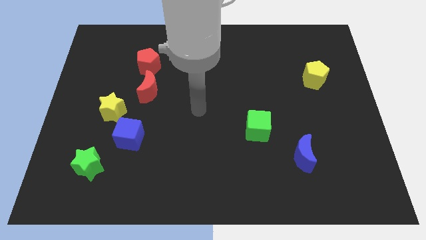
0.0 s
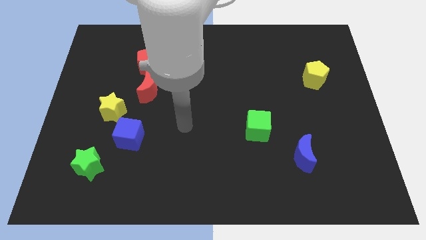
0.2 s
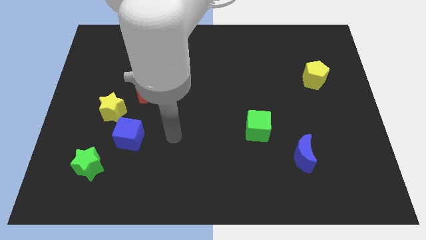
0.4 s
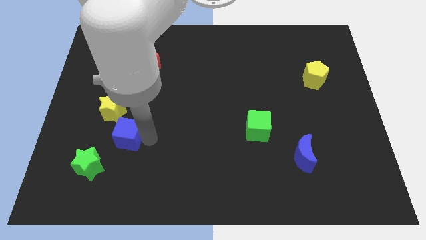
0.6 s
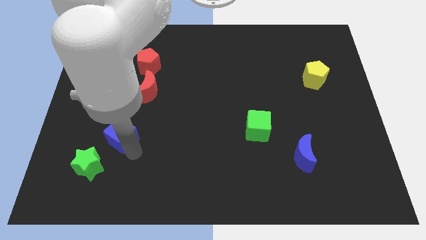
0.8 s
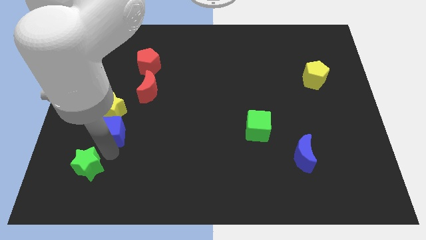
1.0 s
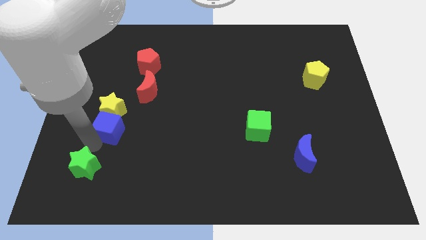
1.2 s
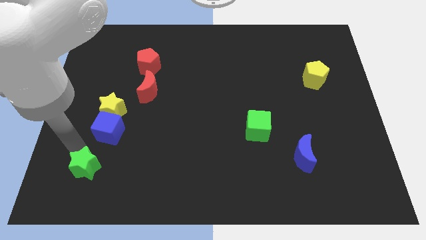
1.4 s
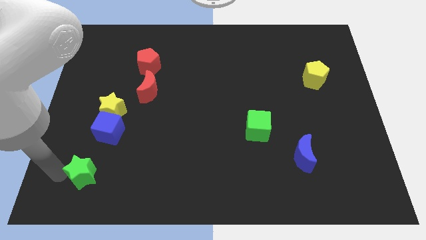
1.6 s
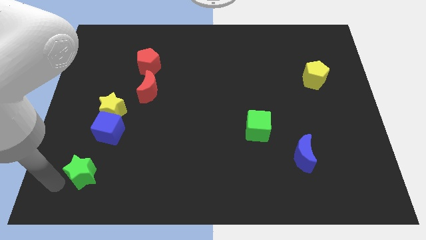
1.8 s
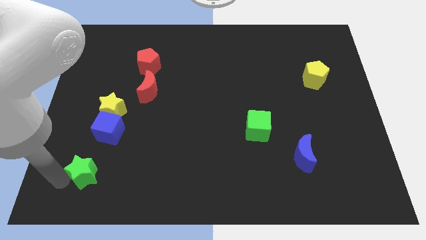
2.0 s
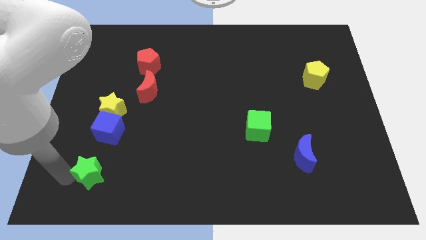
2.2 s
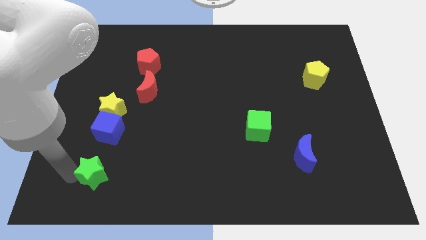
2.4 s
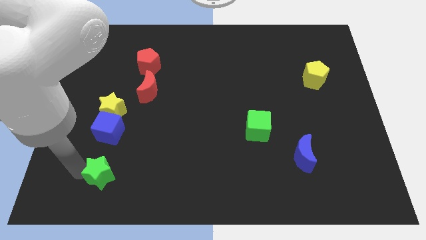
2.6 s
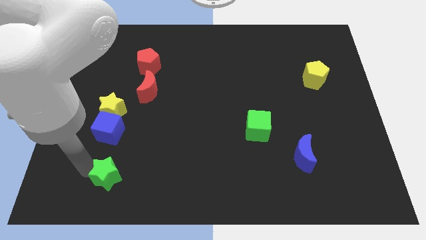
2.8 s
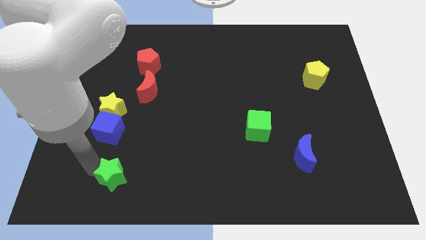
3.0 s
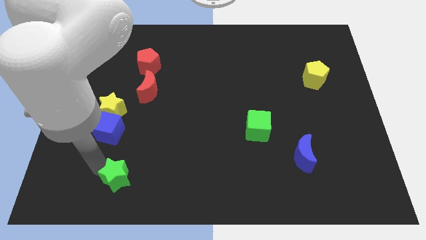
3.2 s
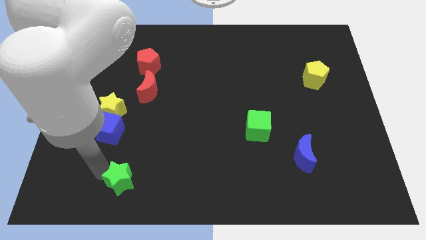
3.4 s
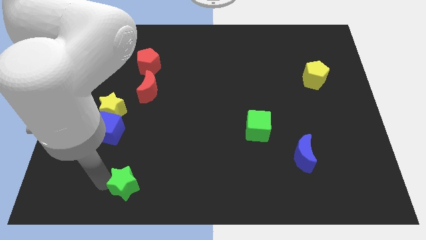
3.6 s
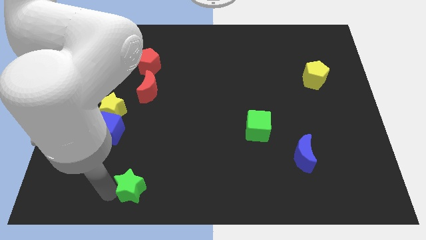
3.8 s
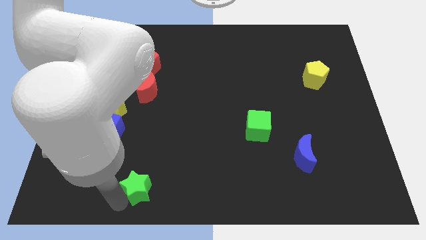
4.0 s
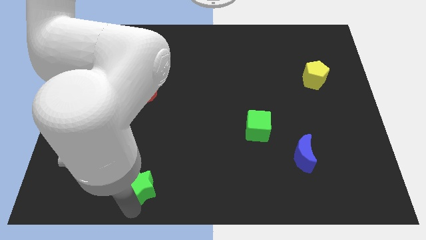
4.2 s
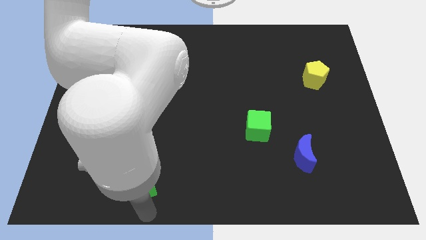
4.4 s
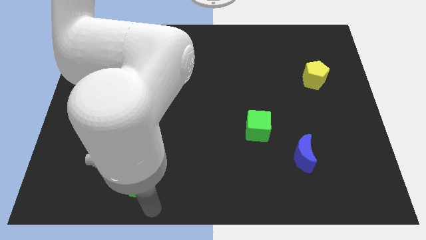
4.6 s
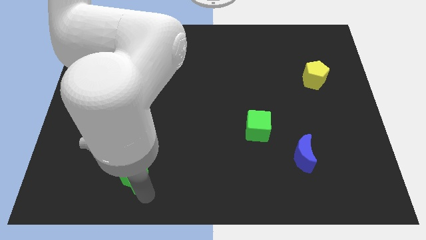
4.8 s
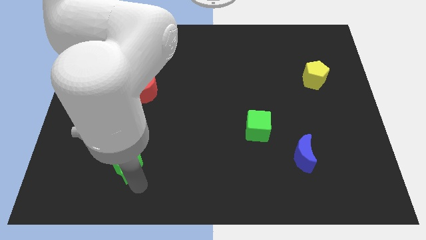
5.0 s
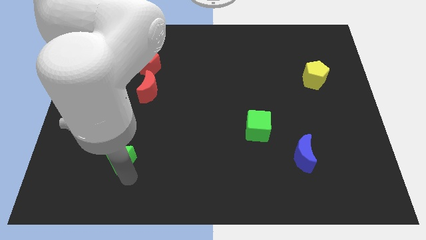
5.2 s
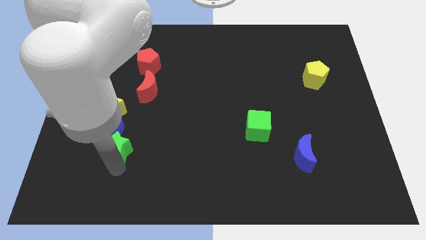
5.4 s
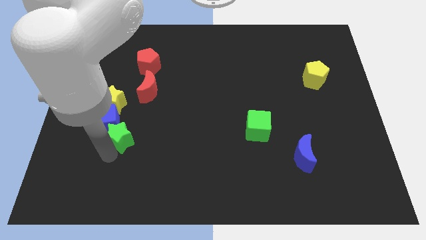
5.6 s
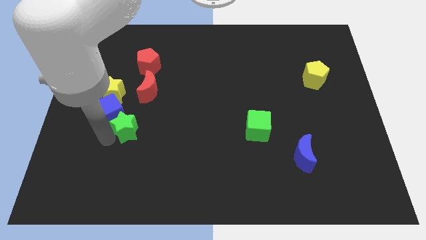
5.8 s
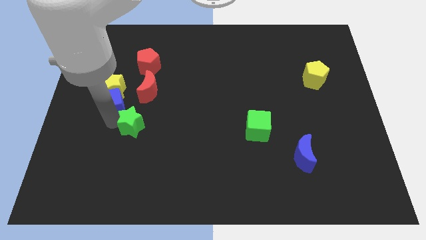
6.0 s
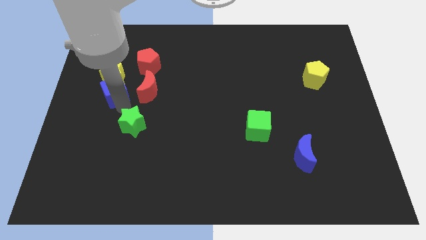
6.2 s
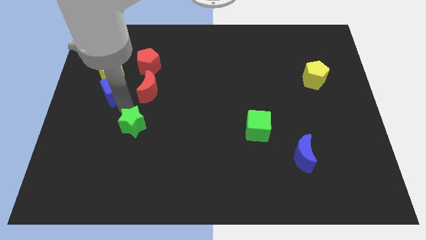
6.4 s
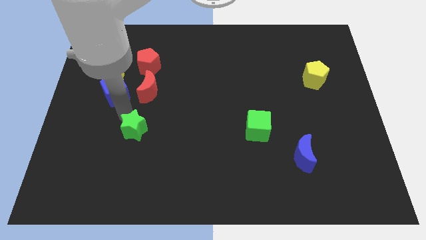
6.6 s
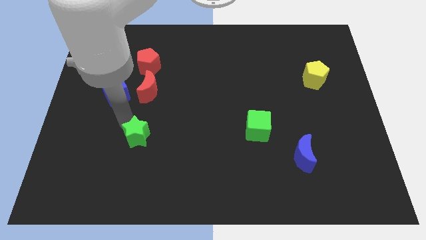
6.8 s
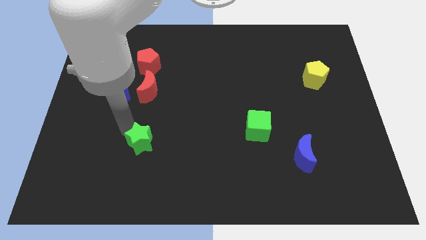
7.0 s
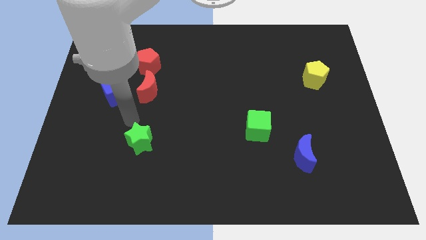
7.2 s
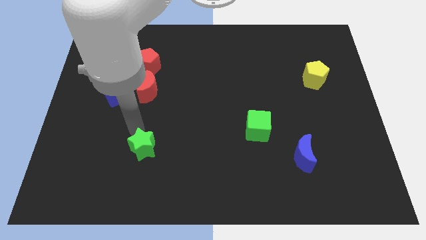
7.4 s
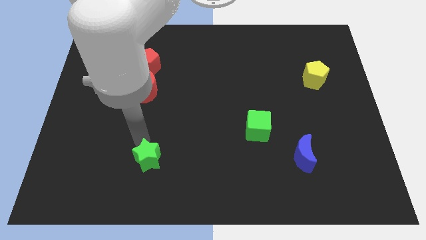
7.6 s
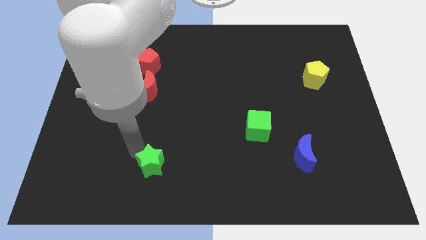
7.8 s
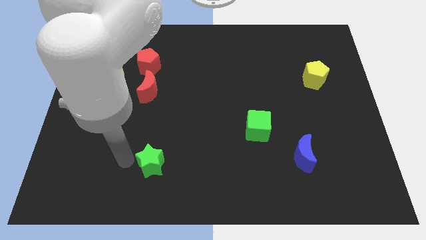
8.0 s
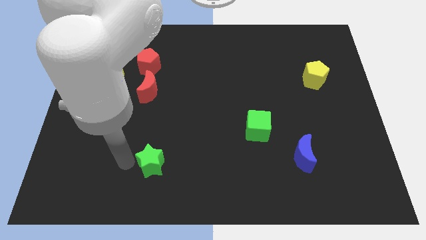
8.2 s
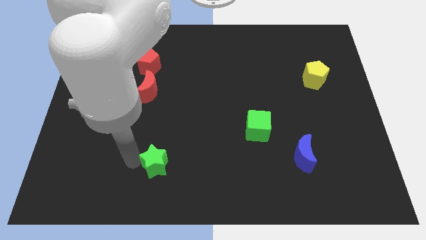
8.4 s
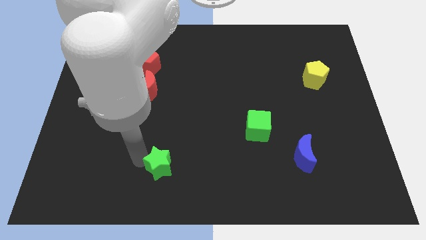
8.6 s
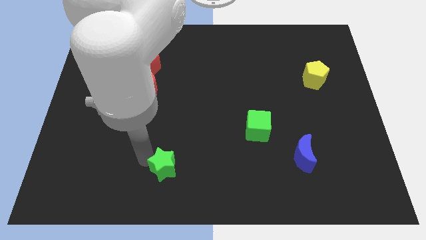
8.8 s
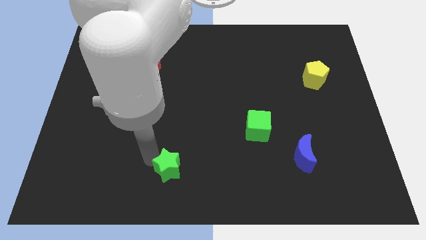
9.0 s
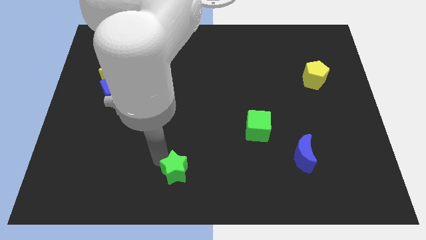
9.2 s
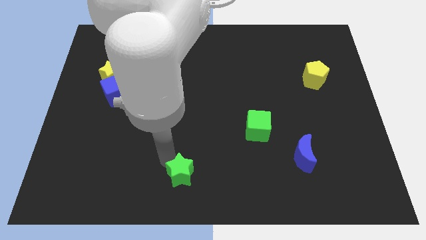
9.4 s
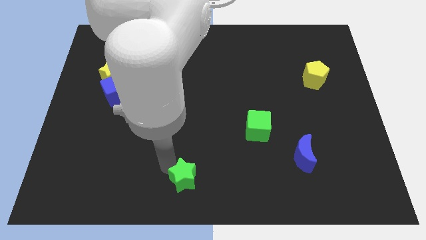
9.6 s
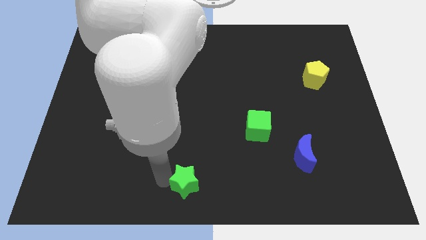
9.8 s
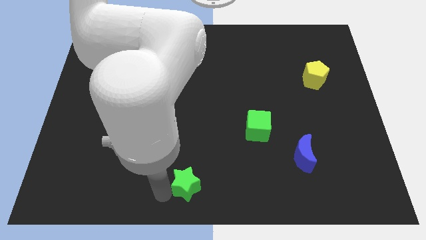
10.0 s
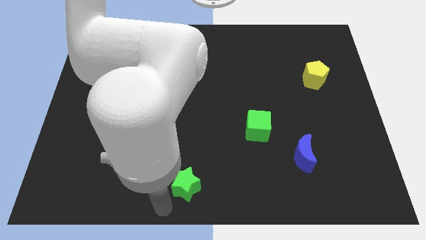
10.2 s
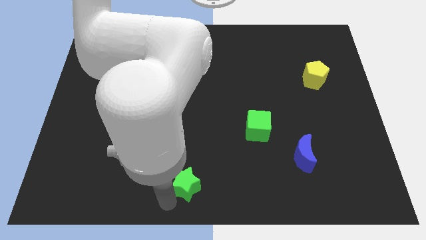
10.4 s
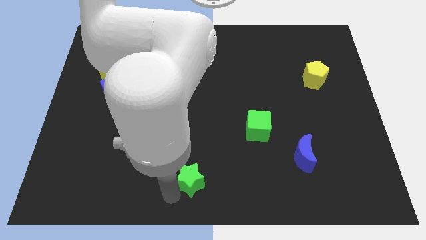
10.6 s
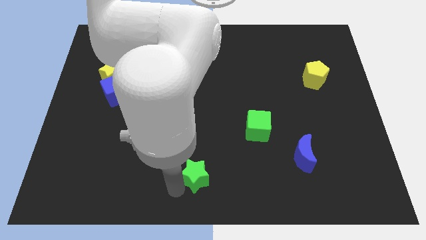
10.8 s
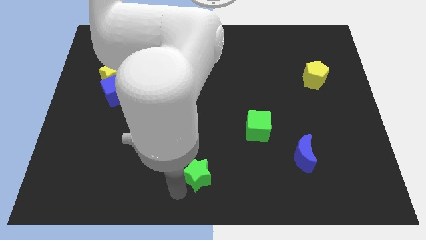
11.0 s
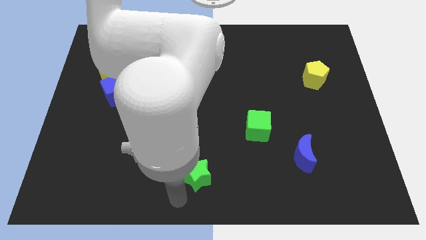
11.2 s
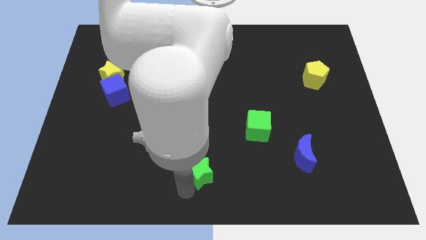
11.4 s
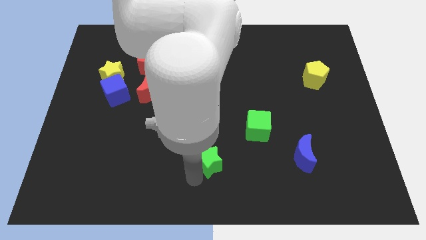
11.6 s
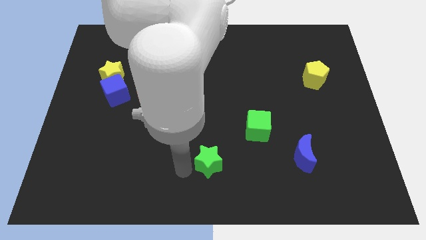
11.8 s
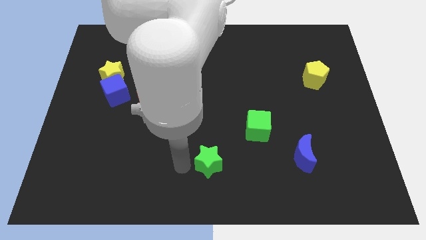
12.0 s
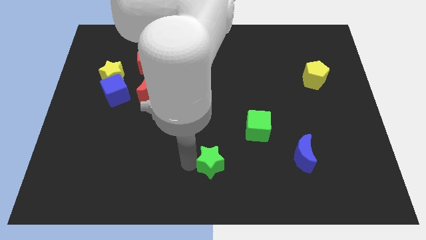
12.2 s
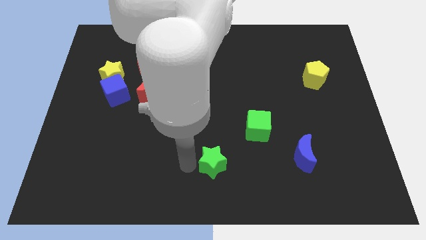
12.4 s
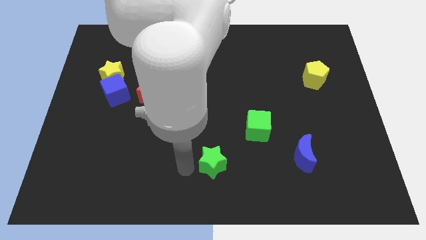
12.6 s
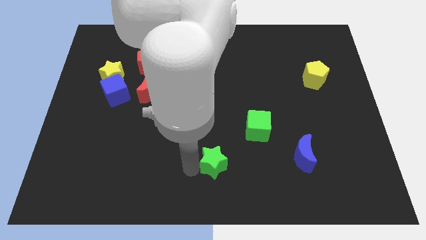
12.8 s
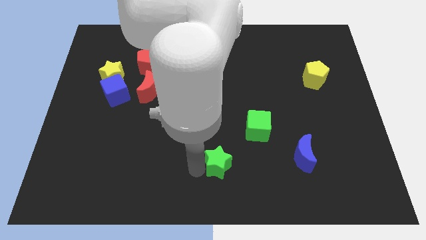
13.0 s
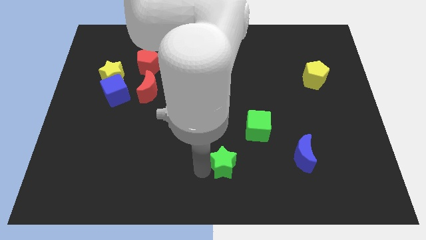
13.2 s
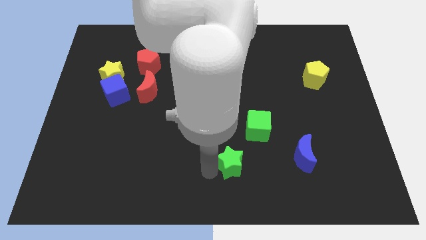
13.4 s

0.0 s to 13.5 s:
push the green star just left of the blue moon
